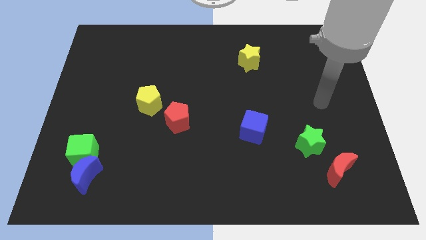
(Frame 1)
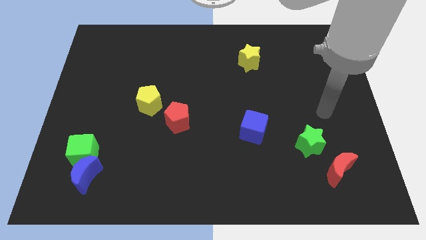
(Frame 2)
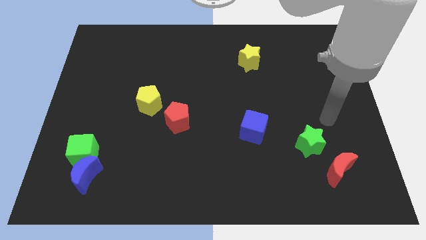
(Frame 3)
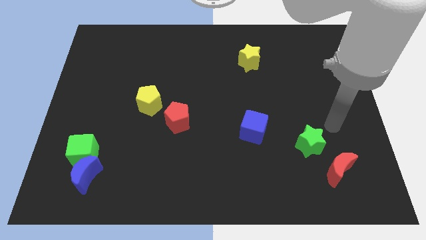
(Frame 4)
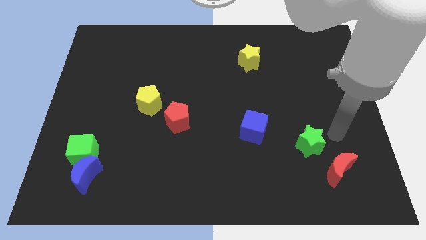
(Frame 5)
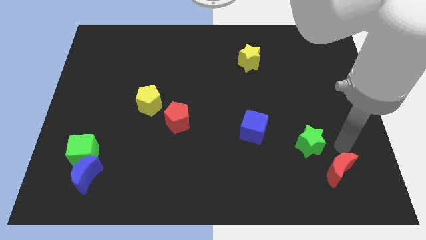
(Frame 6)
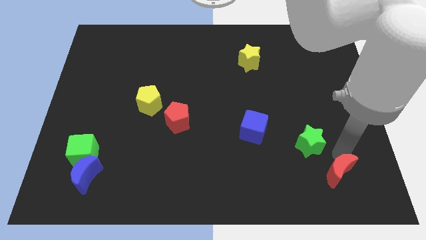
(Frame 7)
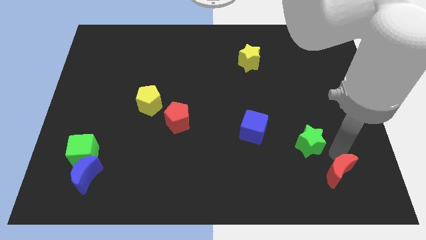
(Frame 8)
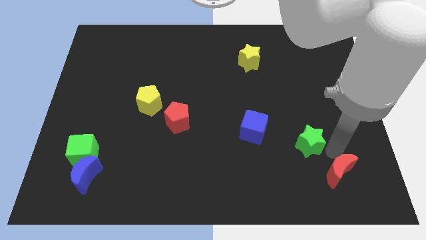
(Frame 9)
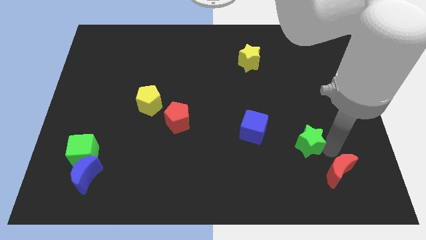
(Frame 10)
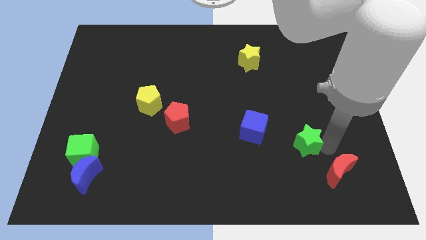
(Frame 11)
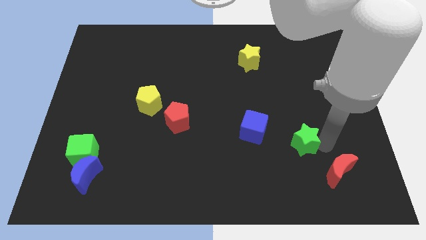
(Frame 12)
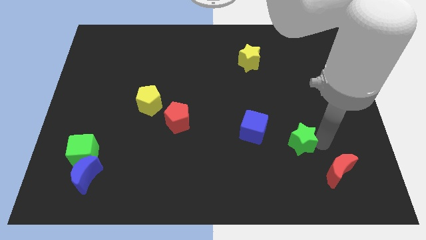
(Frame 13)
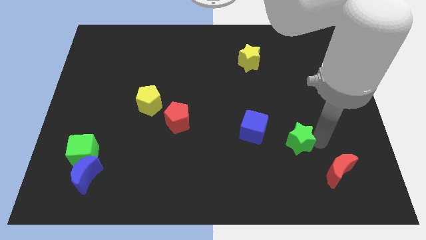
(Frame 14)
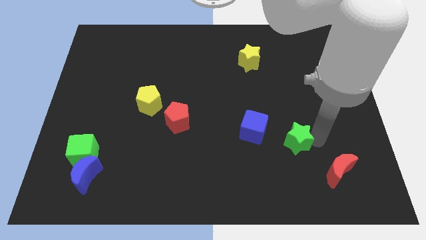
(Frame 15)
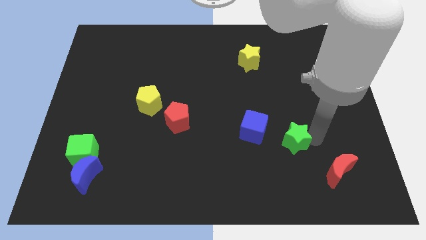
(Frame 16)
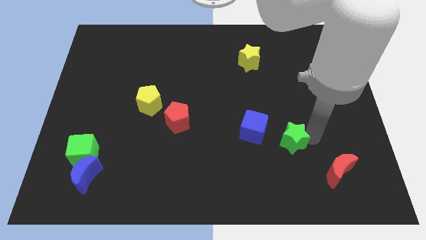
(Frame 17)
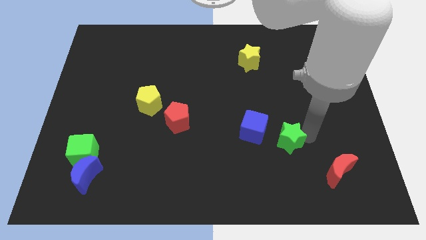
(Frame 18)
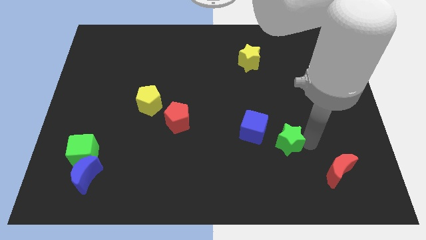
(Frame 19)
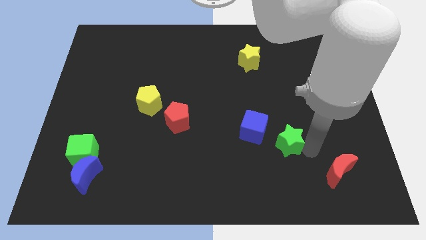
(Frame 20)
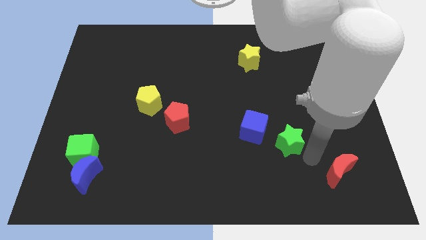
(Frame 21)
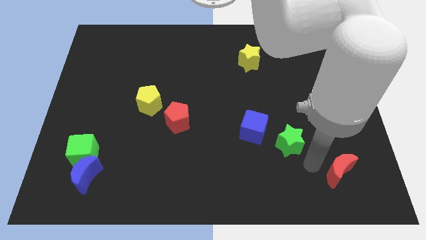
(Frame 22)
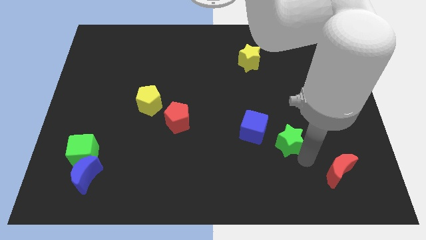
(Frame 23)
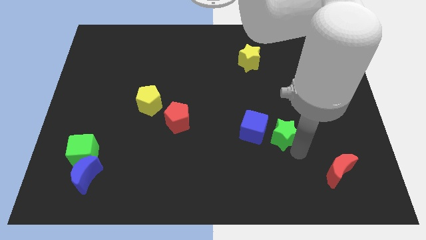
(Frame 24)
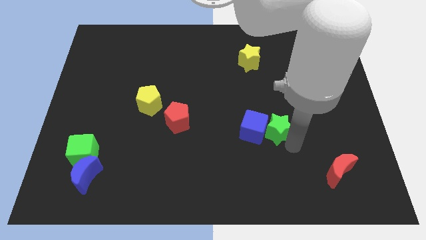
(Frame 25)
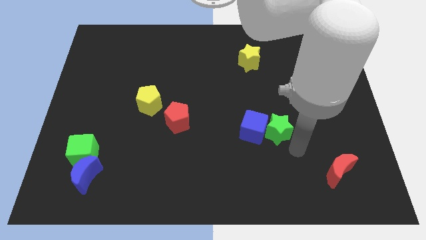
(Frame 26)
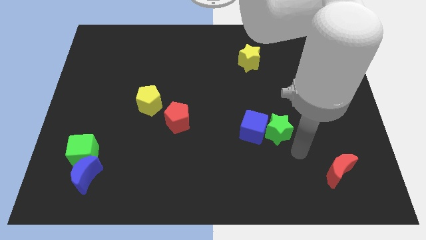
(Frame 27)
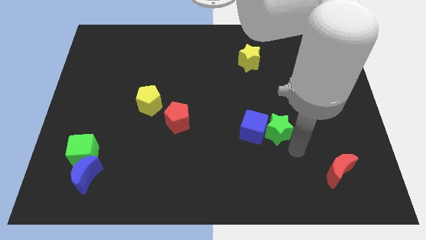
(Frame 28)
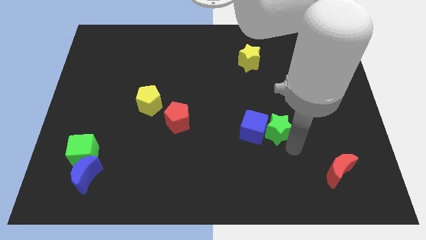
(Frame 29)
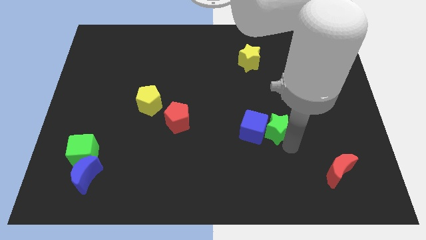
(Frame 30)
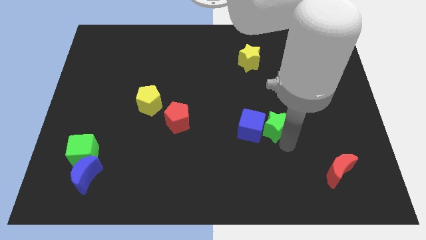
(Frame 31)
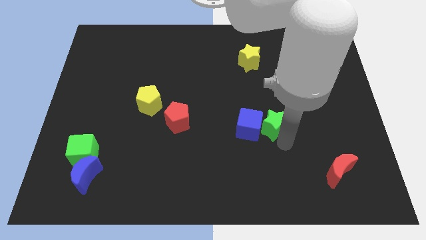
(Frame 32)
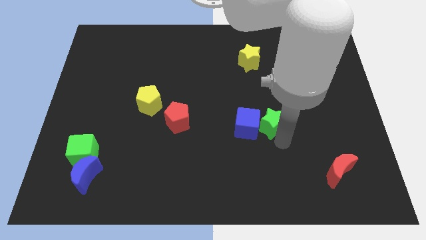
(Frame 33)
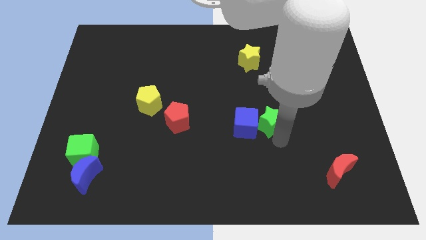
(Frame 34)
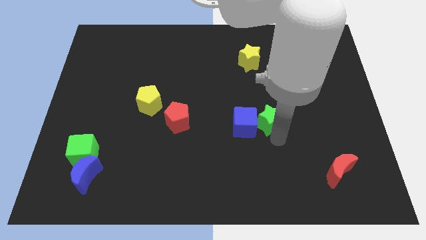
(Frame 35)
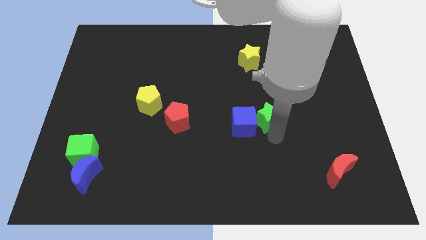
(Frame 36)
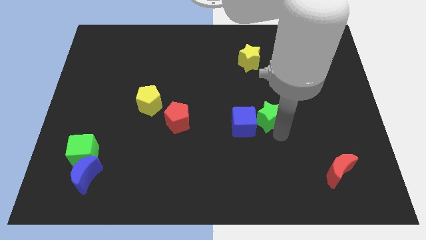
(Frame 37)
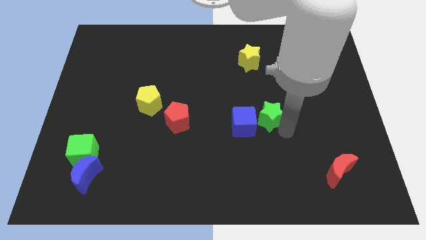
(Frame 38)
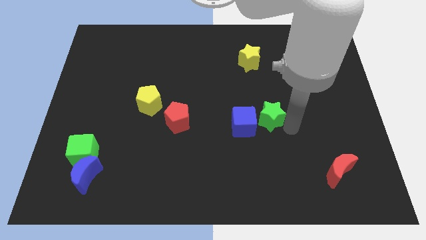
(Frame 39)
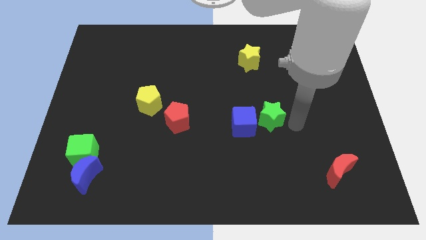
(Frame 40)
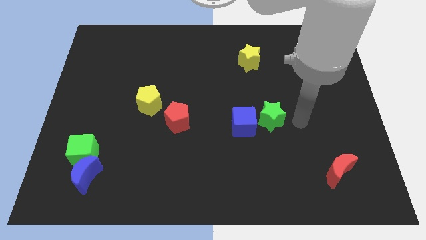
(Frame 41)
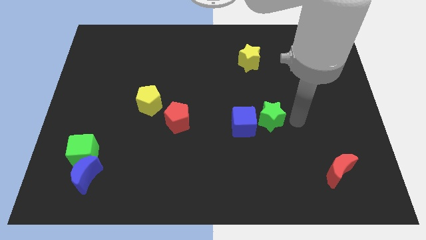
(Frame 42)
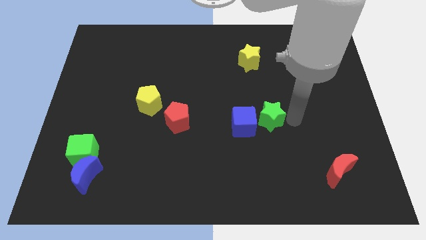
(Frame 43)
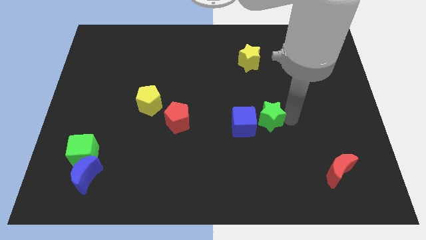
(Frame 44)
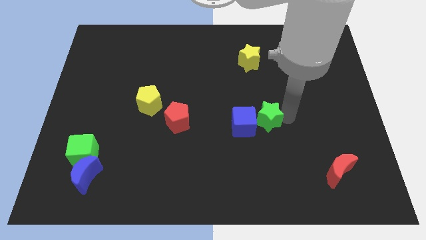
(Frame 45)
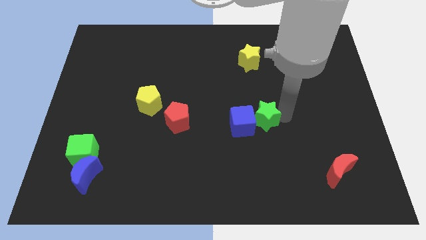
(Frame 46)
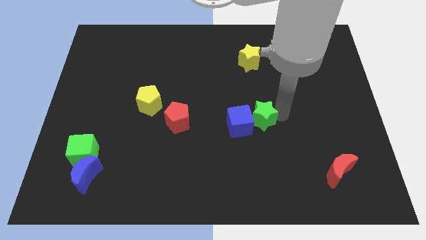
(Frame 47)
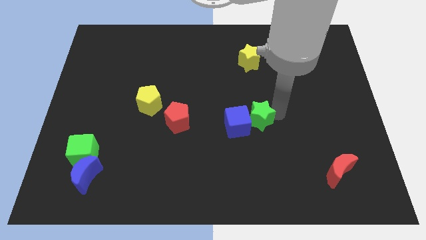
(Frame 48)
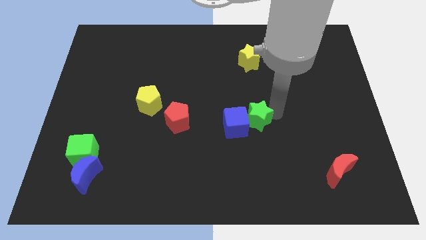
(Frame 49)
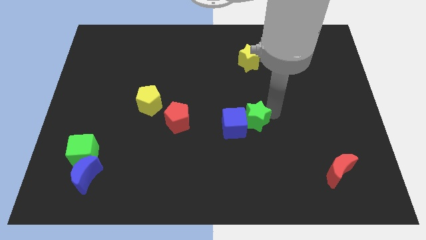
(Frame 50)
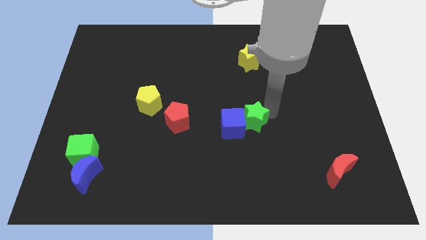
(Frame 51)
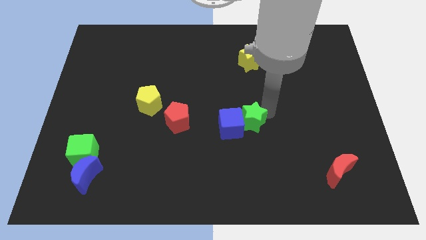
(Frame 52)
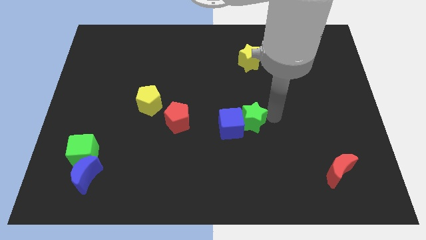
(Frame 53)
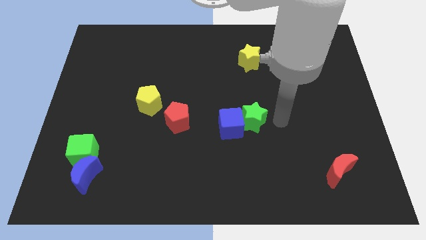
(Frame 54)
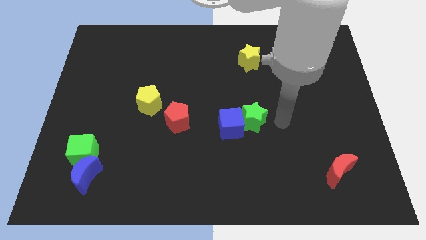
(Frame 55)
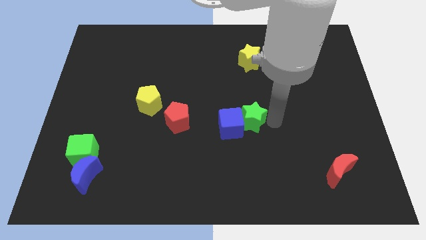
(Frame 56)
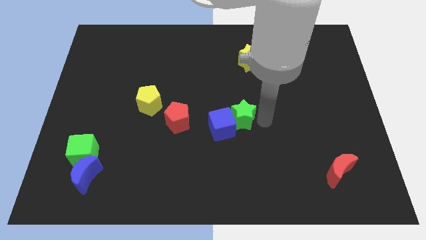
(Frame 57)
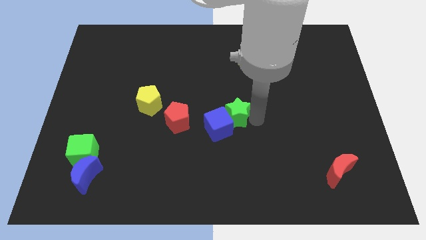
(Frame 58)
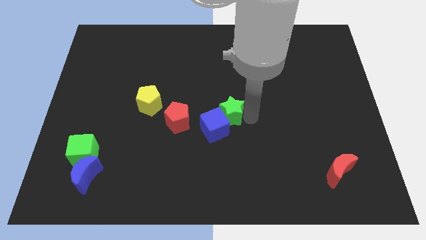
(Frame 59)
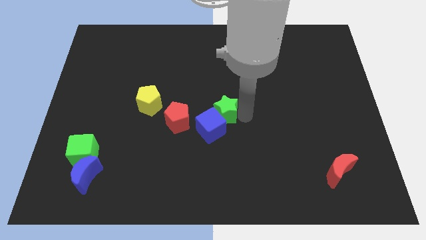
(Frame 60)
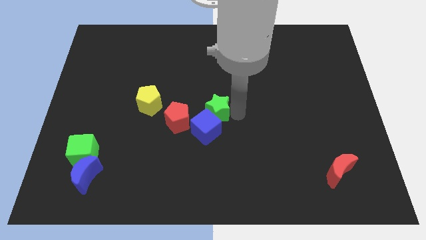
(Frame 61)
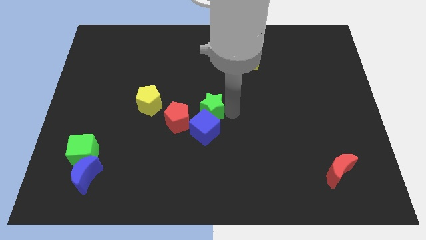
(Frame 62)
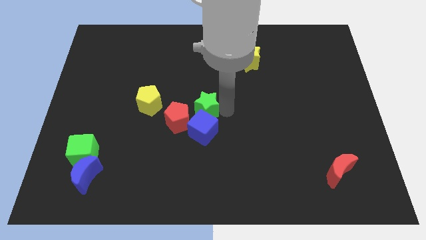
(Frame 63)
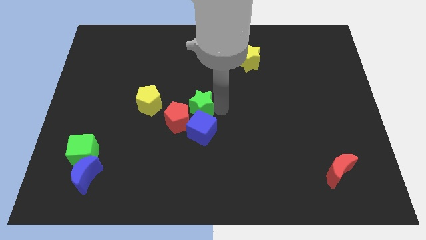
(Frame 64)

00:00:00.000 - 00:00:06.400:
put the green star to the red pentagon

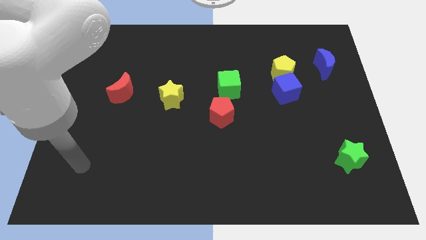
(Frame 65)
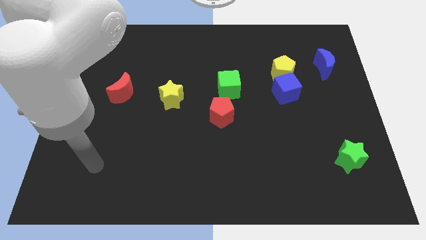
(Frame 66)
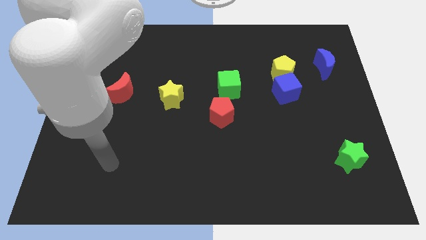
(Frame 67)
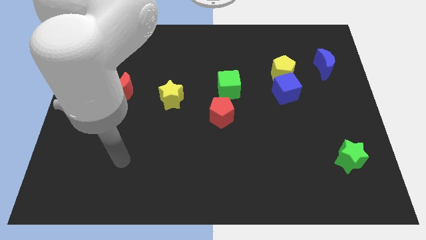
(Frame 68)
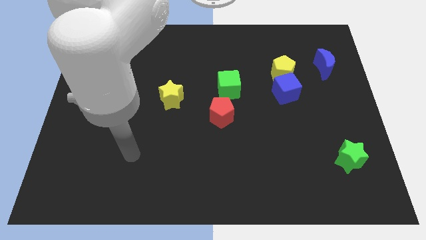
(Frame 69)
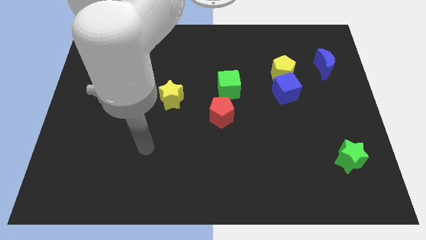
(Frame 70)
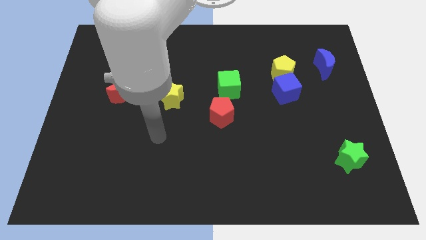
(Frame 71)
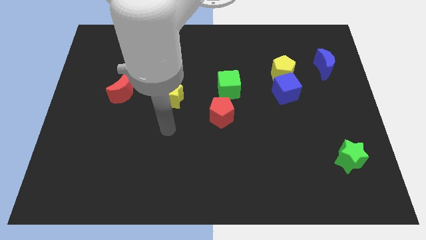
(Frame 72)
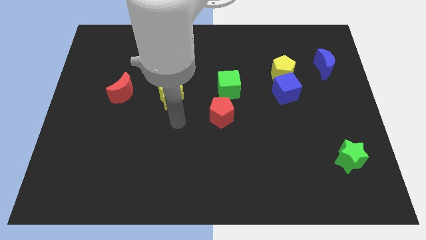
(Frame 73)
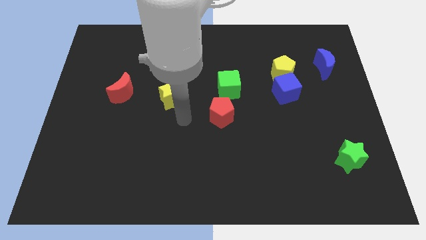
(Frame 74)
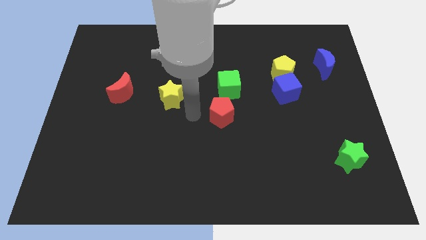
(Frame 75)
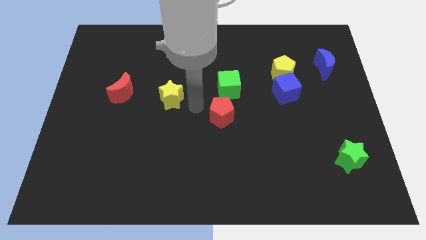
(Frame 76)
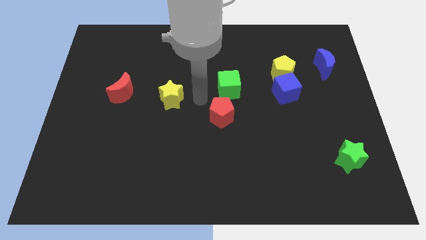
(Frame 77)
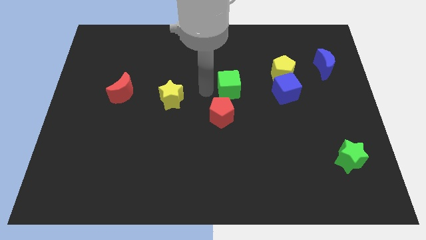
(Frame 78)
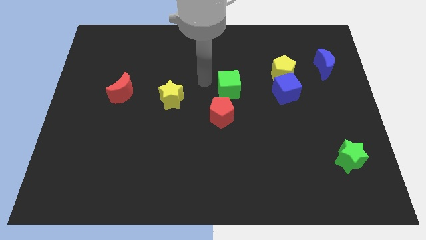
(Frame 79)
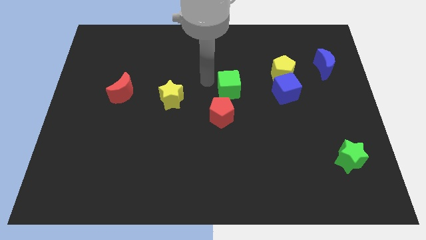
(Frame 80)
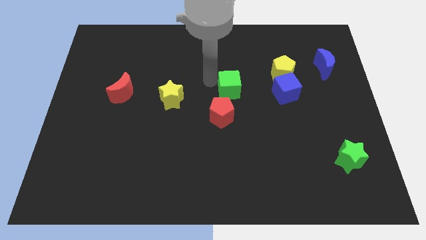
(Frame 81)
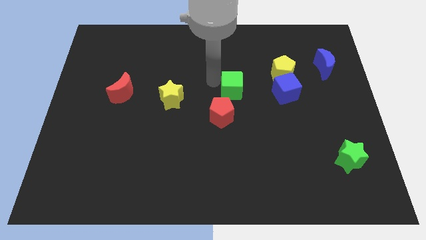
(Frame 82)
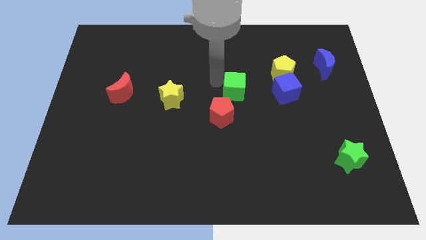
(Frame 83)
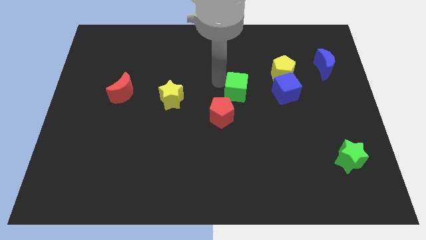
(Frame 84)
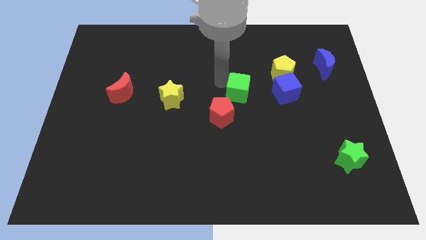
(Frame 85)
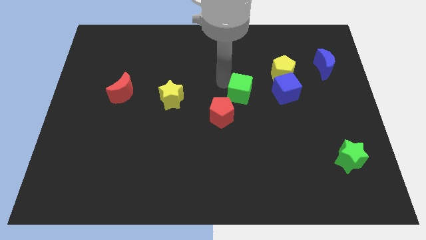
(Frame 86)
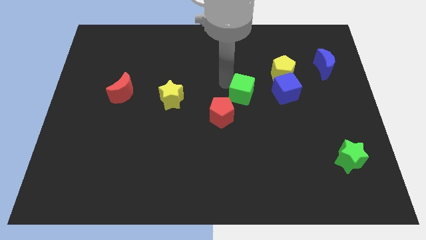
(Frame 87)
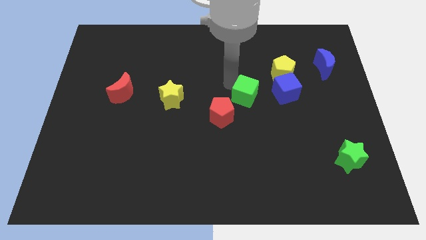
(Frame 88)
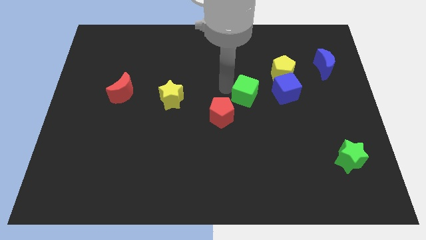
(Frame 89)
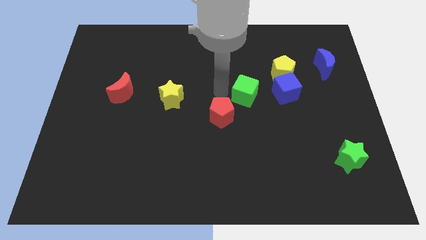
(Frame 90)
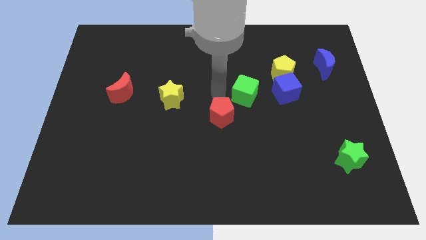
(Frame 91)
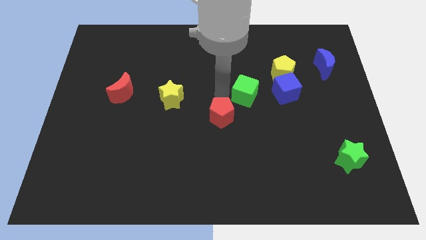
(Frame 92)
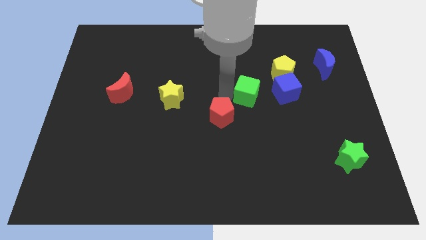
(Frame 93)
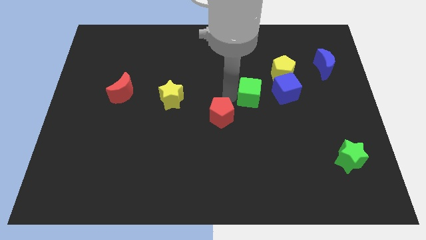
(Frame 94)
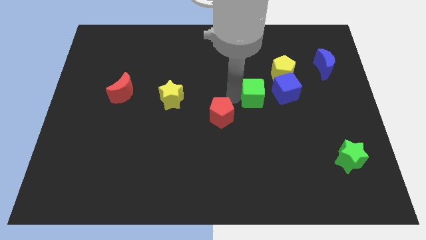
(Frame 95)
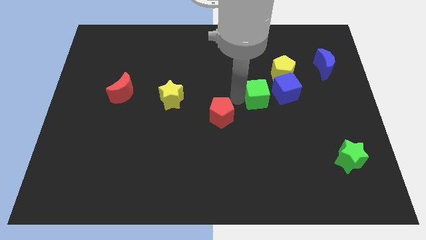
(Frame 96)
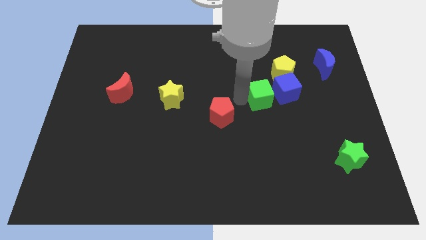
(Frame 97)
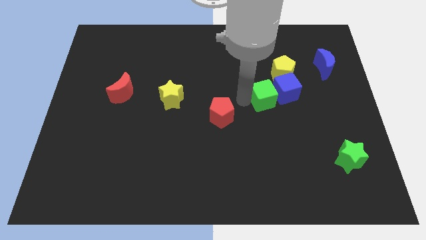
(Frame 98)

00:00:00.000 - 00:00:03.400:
push the green cube next to the blue cube
